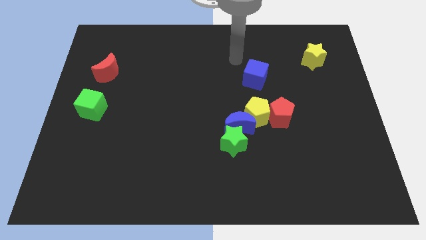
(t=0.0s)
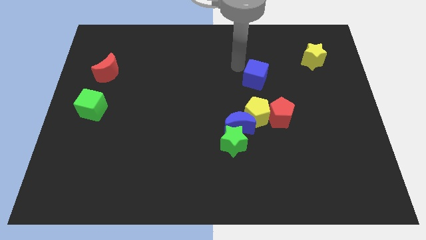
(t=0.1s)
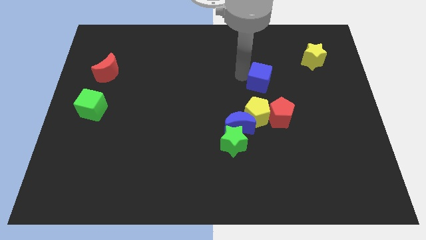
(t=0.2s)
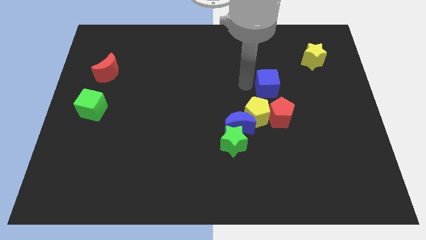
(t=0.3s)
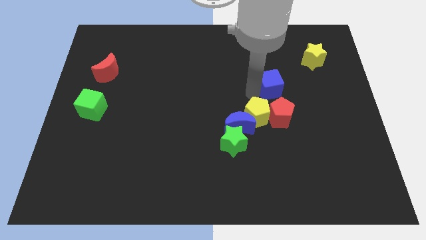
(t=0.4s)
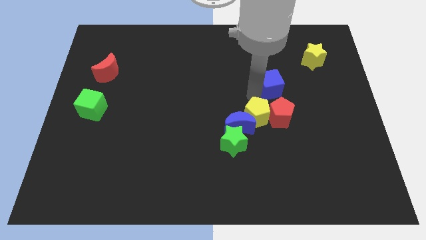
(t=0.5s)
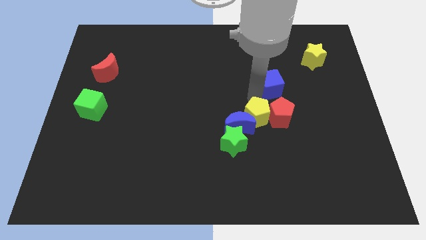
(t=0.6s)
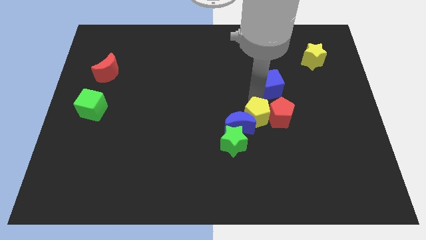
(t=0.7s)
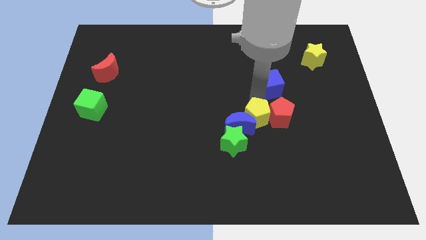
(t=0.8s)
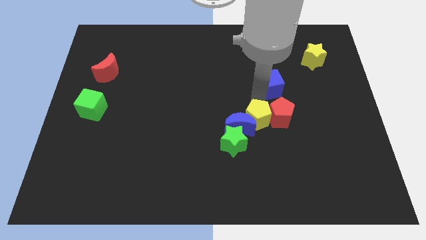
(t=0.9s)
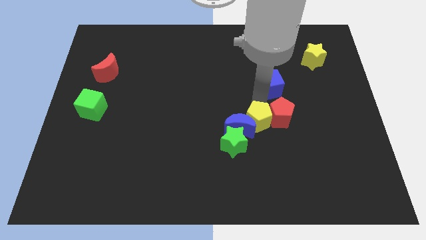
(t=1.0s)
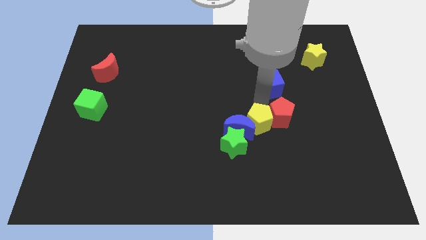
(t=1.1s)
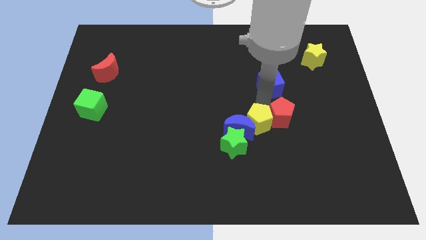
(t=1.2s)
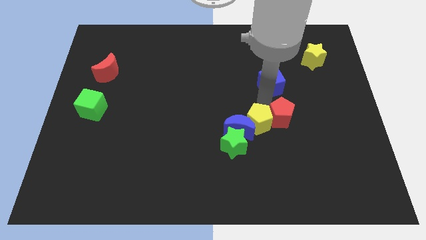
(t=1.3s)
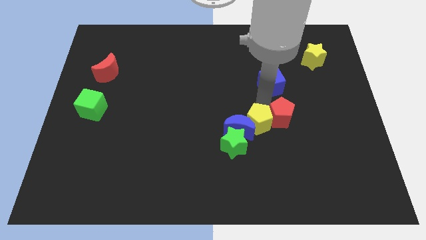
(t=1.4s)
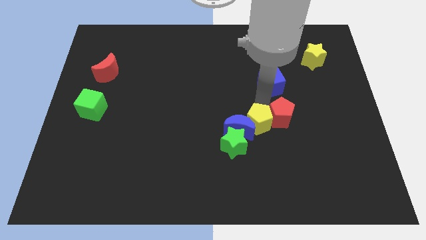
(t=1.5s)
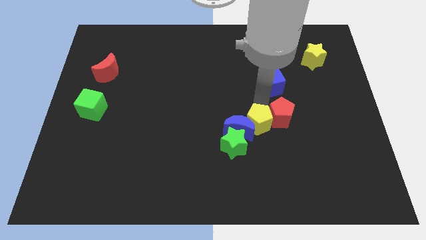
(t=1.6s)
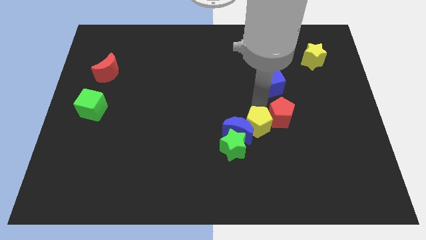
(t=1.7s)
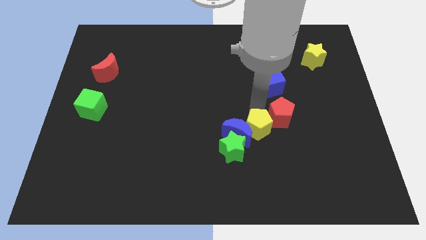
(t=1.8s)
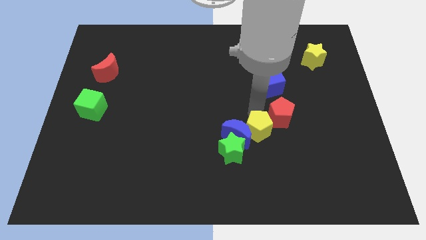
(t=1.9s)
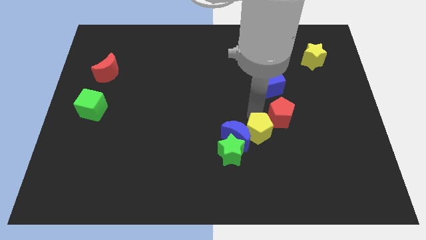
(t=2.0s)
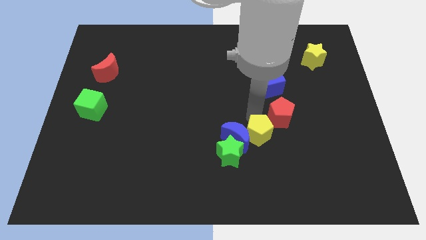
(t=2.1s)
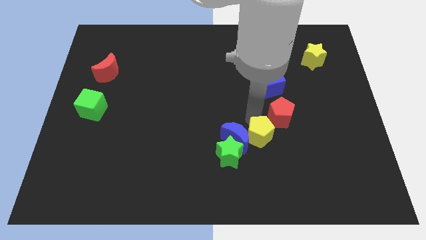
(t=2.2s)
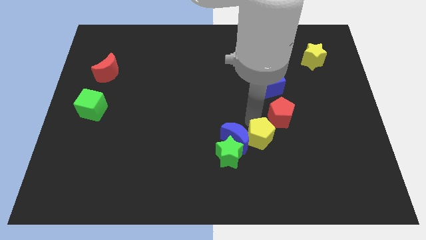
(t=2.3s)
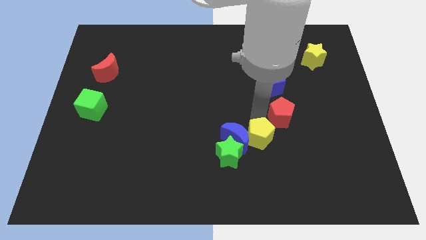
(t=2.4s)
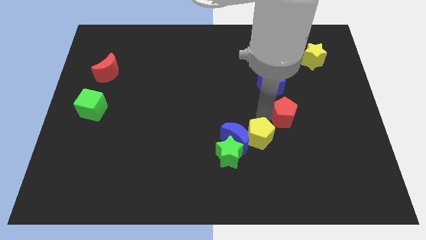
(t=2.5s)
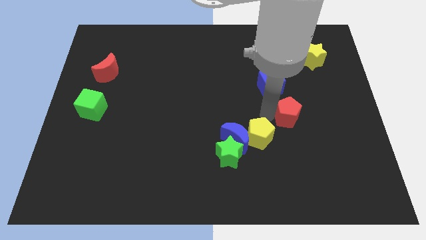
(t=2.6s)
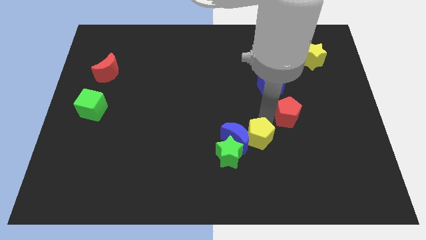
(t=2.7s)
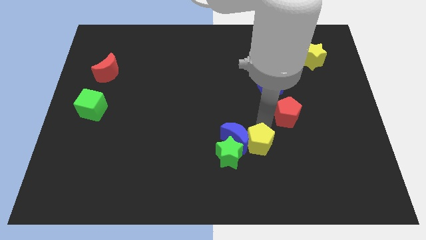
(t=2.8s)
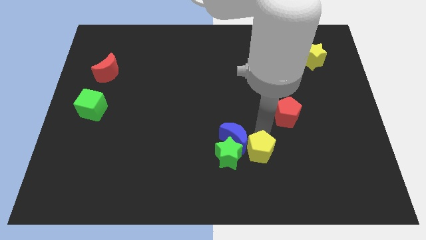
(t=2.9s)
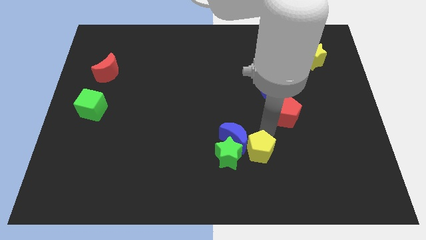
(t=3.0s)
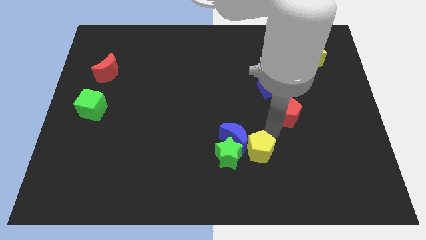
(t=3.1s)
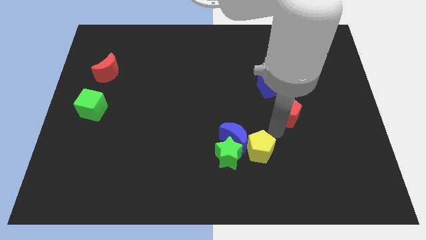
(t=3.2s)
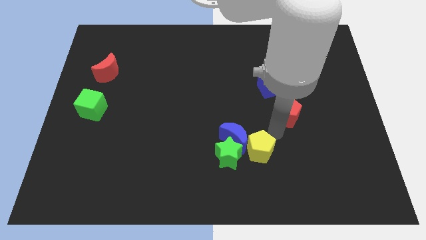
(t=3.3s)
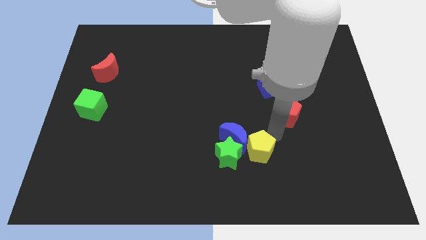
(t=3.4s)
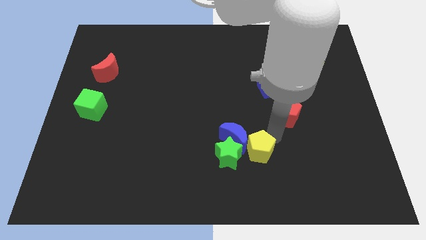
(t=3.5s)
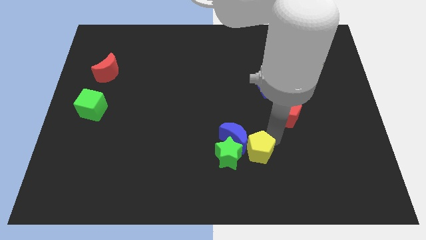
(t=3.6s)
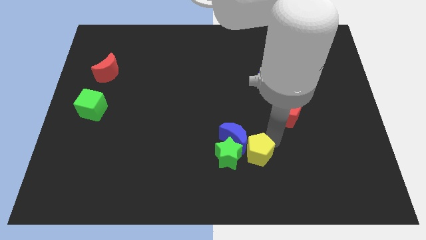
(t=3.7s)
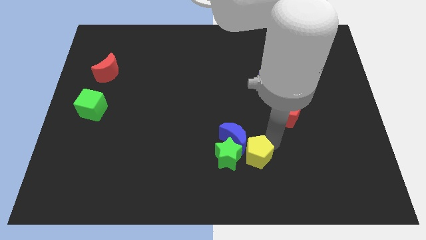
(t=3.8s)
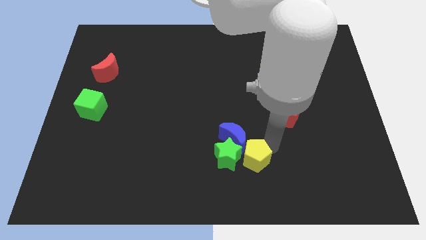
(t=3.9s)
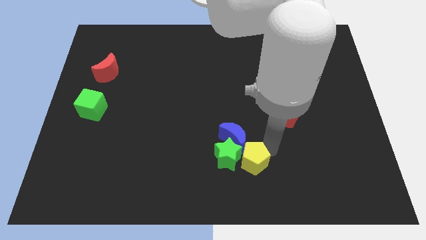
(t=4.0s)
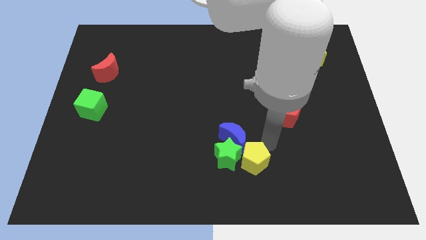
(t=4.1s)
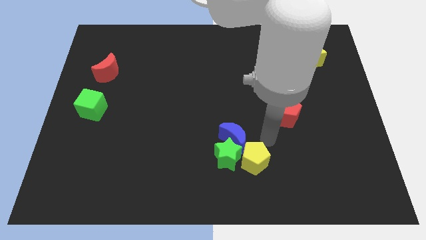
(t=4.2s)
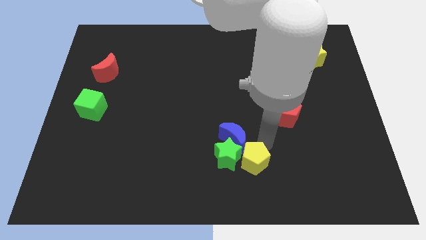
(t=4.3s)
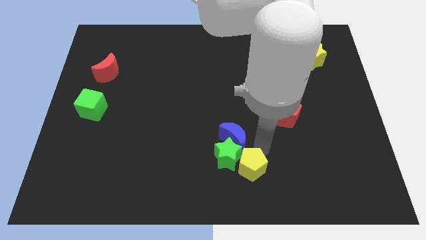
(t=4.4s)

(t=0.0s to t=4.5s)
slide the yellow pentagon to the bottom side

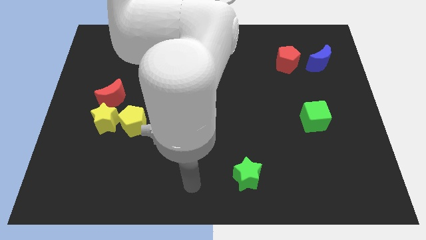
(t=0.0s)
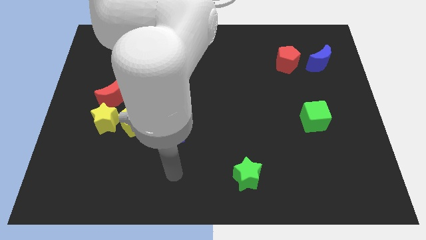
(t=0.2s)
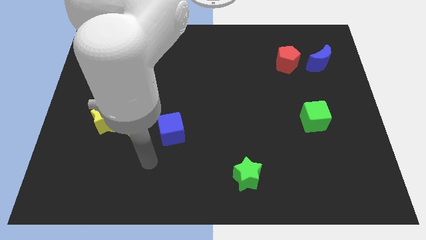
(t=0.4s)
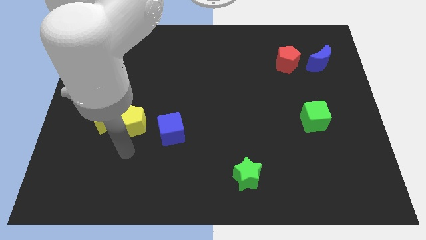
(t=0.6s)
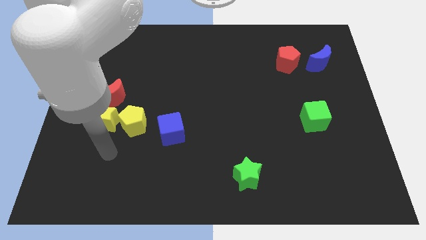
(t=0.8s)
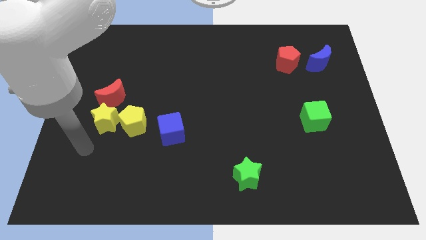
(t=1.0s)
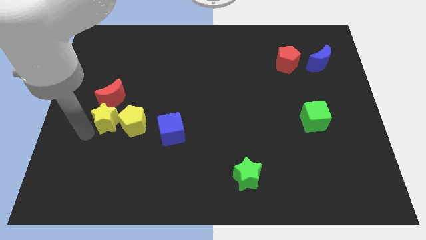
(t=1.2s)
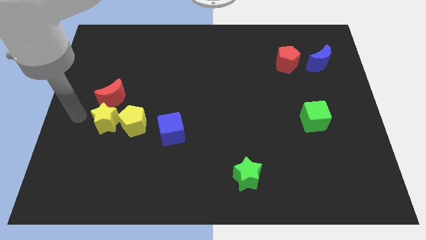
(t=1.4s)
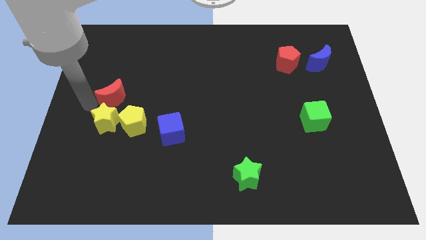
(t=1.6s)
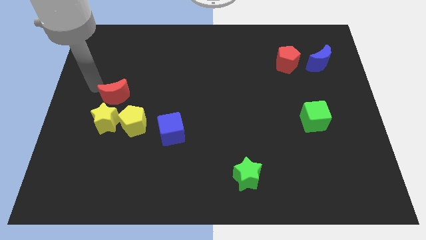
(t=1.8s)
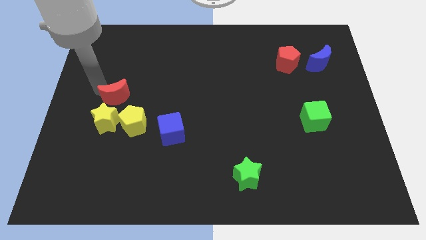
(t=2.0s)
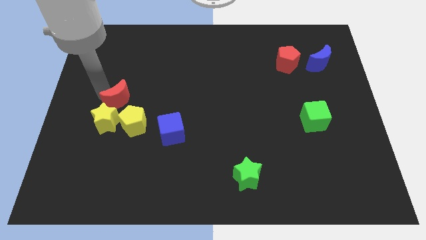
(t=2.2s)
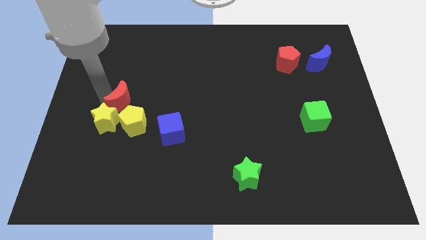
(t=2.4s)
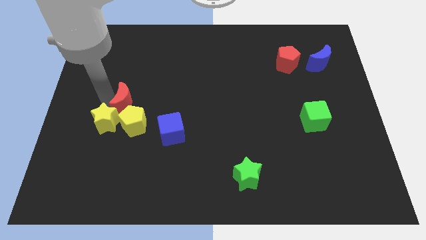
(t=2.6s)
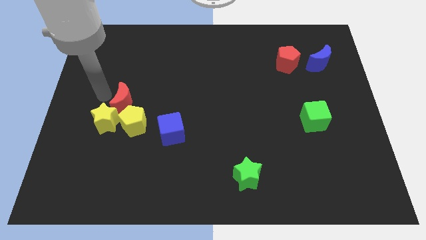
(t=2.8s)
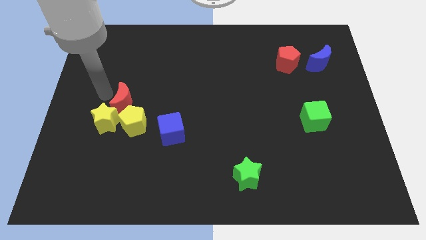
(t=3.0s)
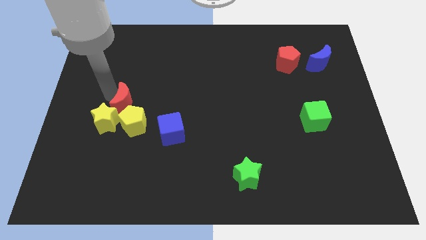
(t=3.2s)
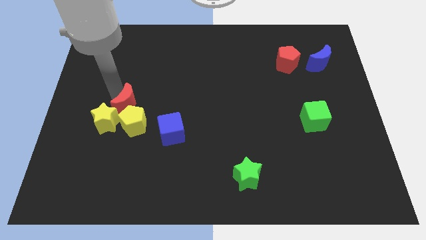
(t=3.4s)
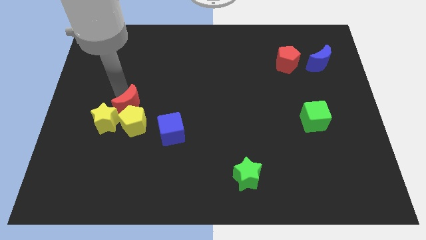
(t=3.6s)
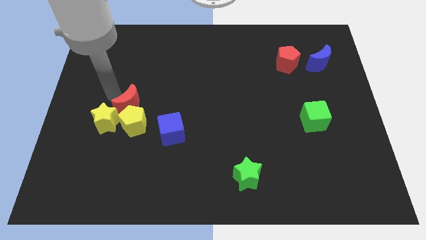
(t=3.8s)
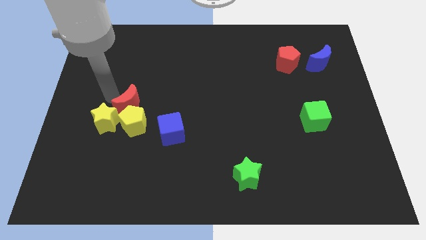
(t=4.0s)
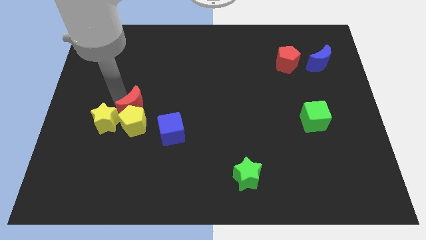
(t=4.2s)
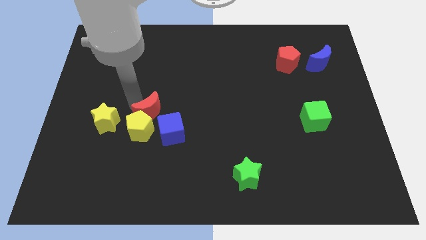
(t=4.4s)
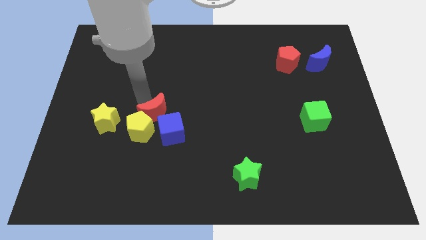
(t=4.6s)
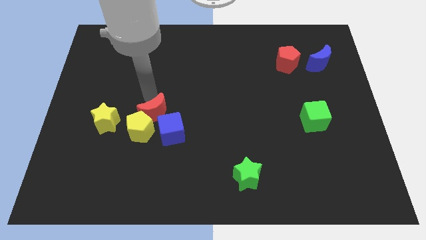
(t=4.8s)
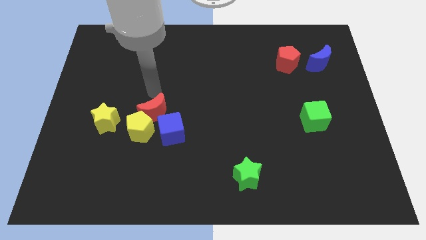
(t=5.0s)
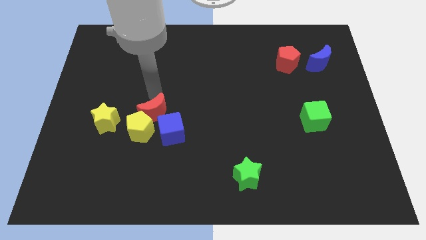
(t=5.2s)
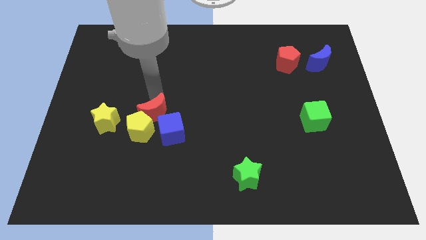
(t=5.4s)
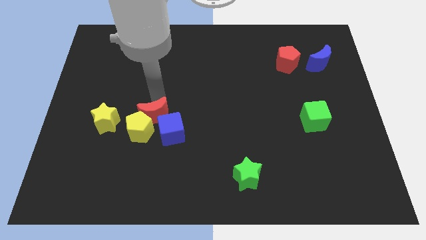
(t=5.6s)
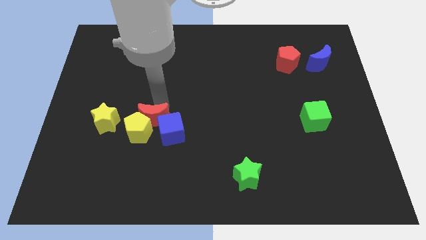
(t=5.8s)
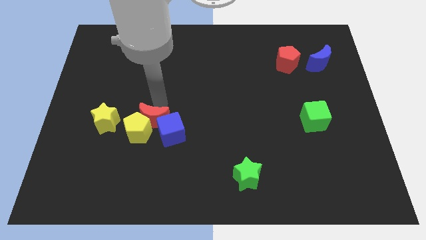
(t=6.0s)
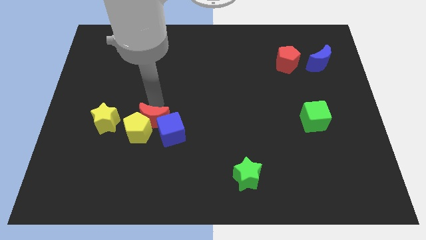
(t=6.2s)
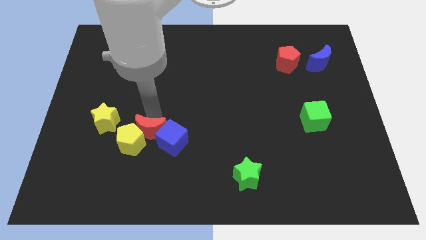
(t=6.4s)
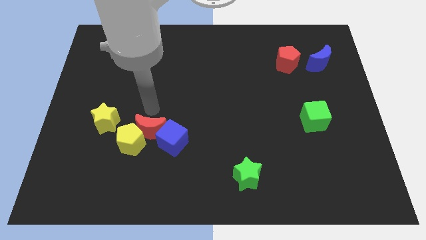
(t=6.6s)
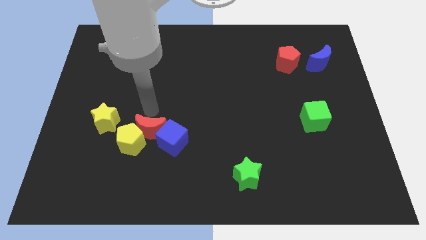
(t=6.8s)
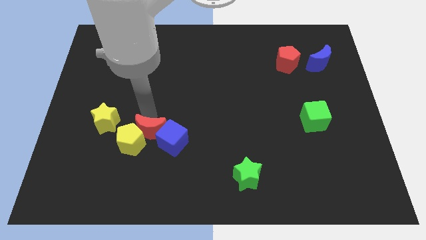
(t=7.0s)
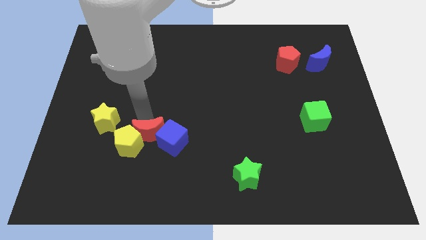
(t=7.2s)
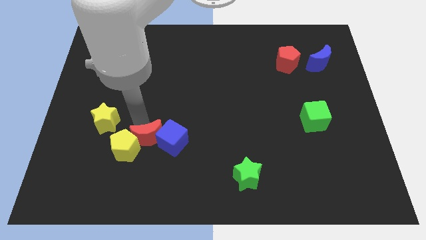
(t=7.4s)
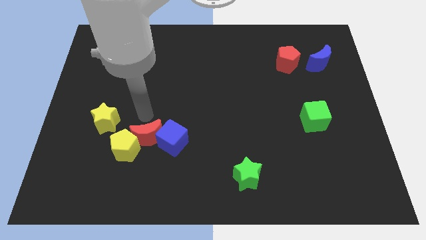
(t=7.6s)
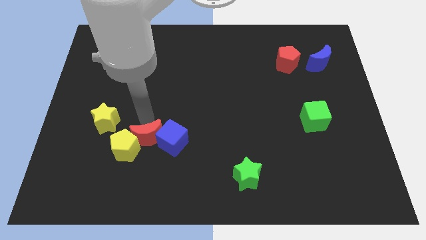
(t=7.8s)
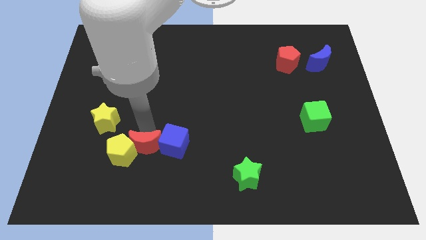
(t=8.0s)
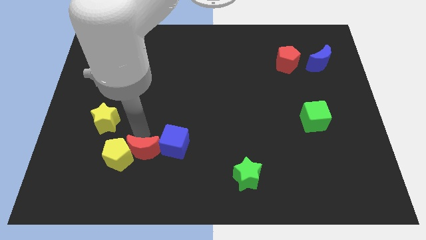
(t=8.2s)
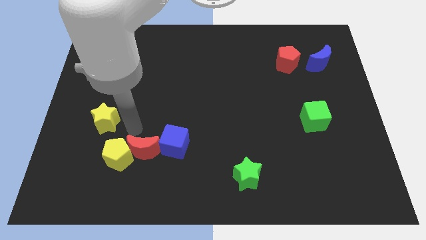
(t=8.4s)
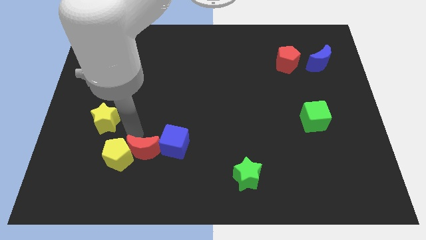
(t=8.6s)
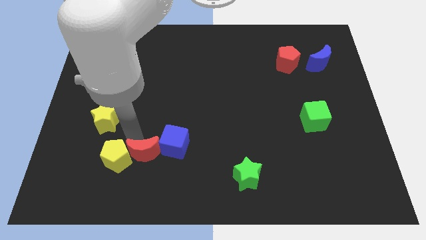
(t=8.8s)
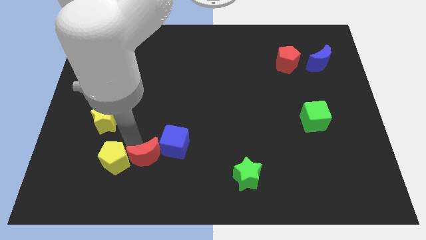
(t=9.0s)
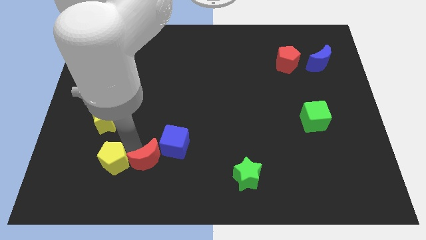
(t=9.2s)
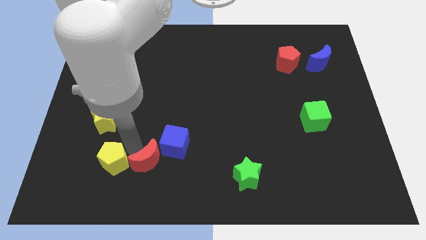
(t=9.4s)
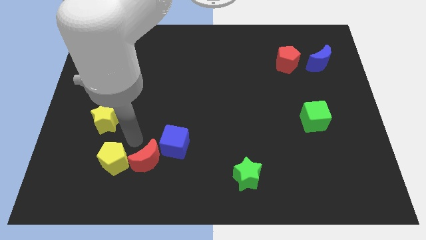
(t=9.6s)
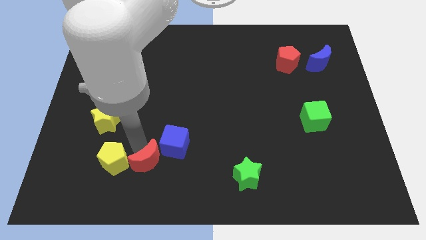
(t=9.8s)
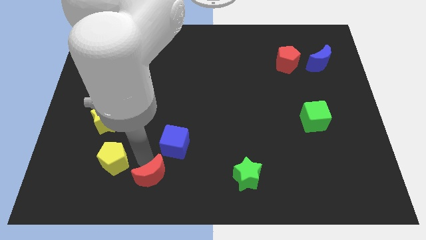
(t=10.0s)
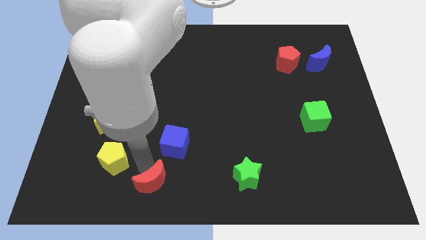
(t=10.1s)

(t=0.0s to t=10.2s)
slide the red moon to the bottom side
